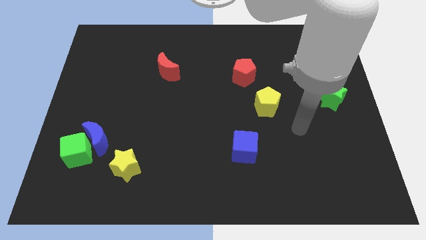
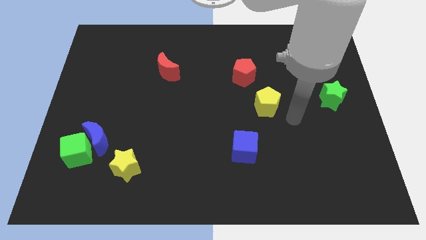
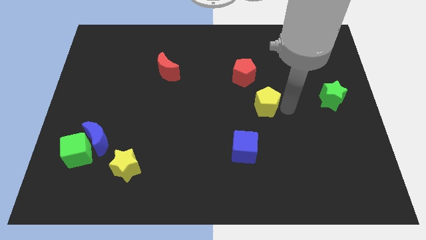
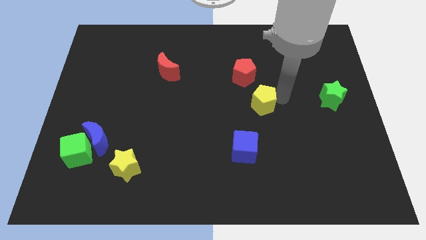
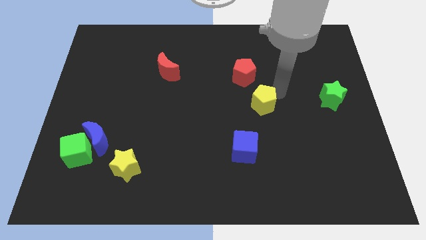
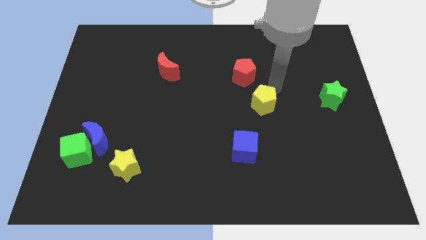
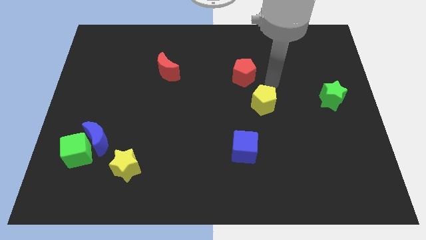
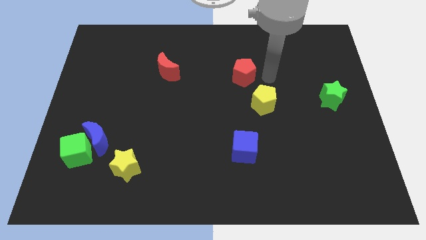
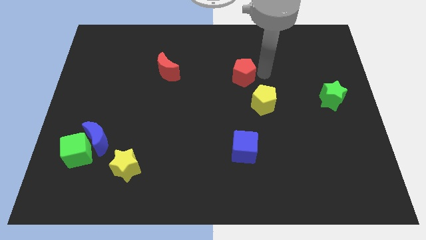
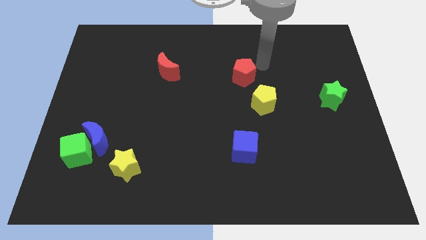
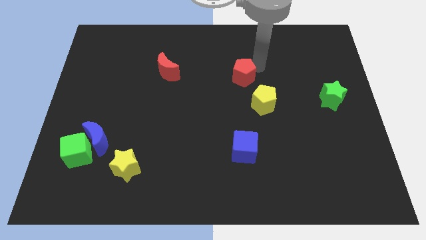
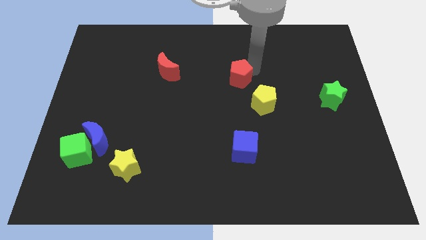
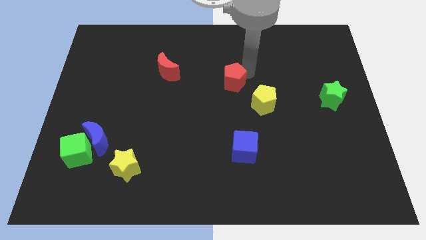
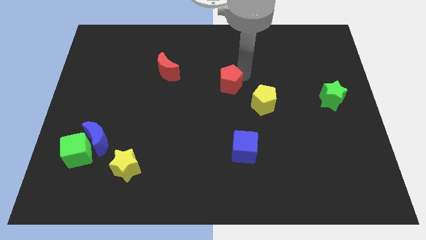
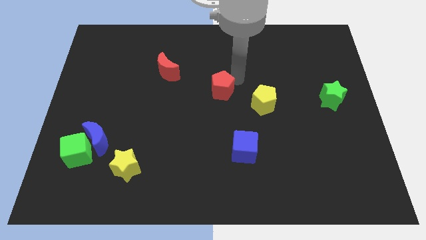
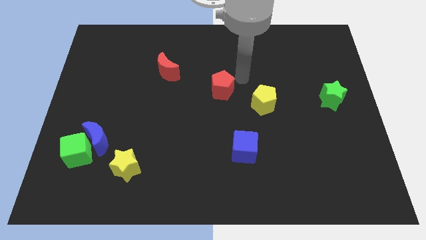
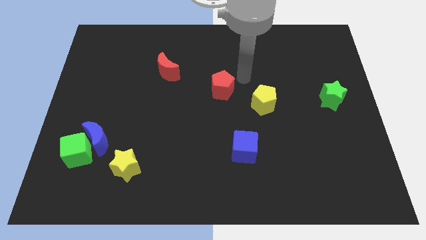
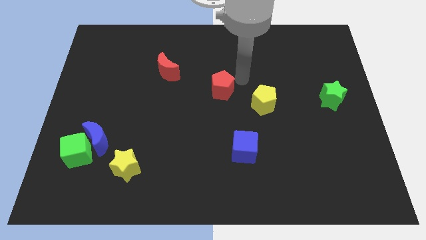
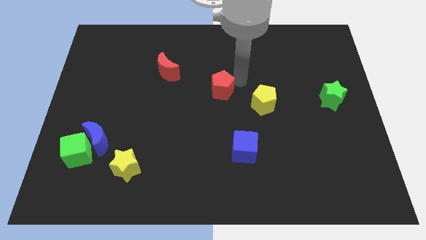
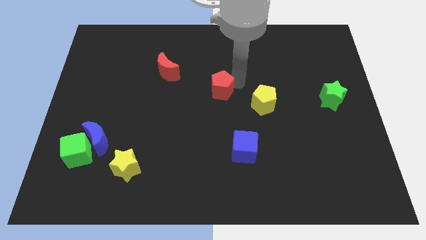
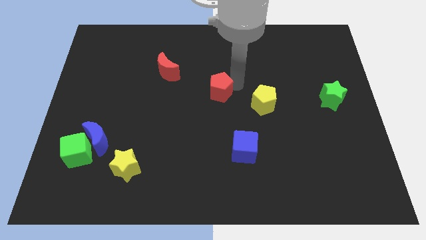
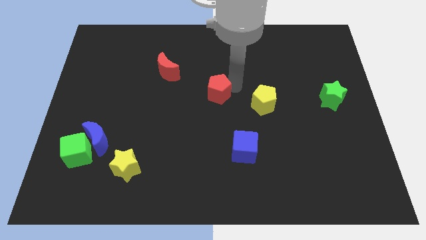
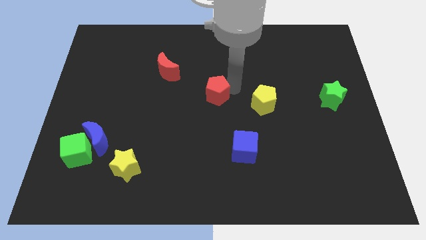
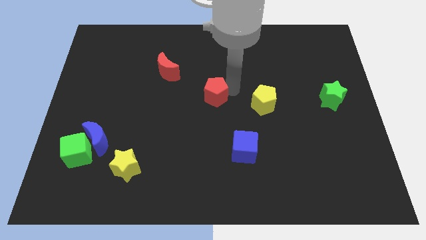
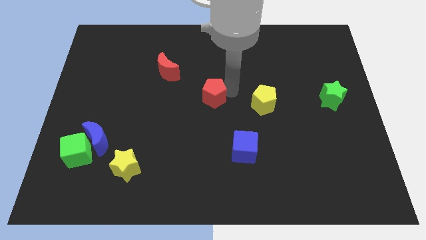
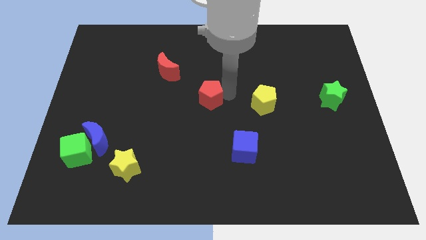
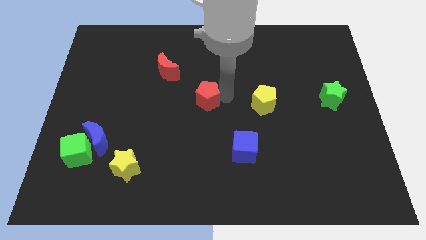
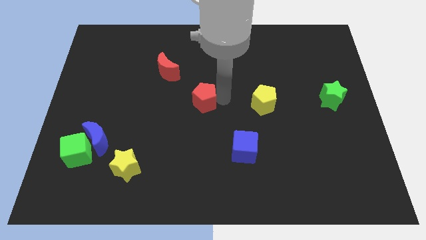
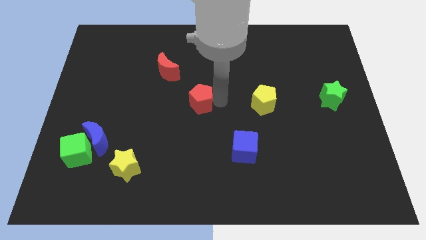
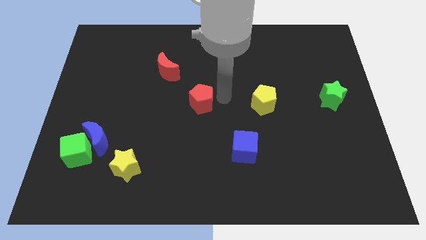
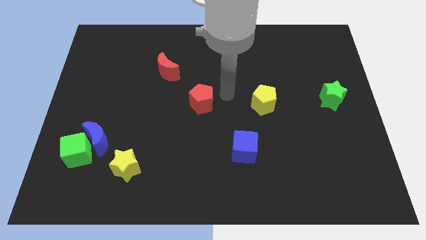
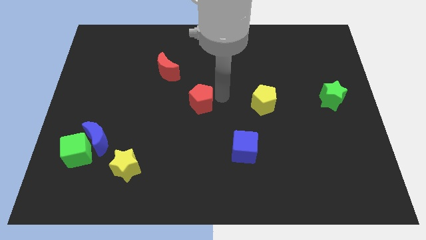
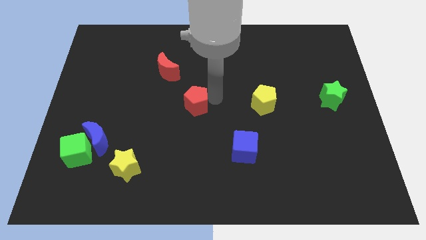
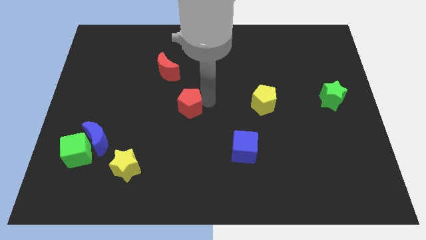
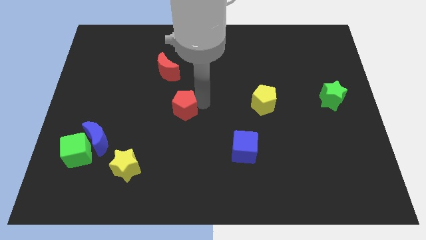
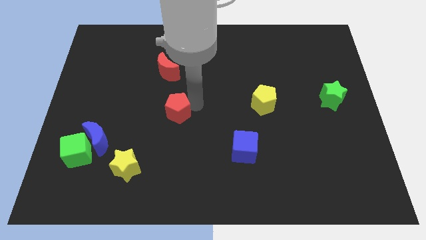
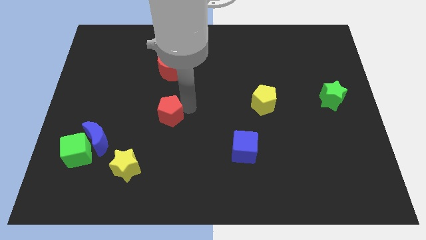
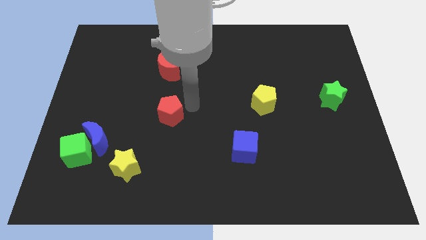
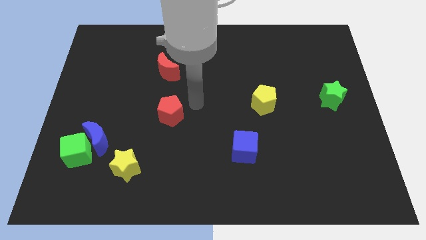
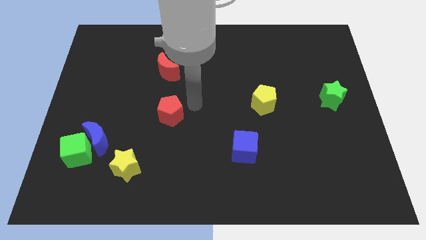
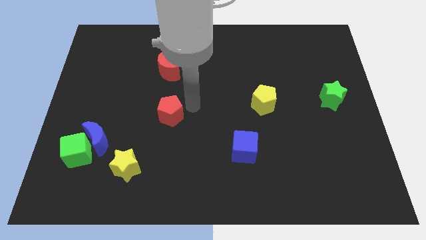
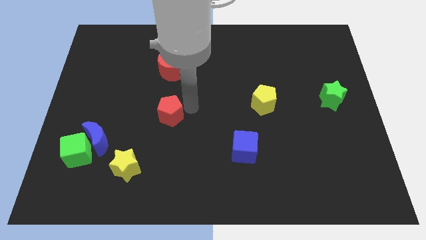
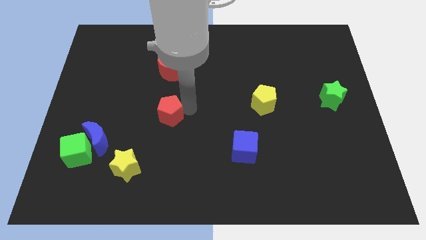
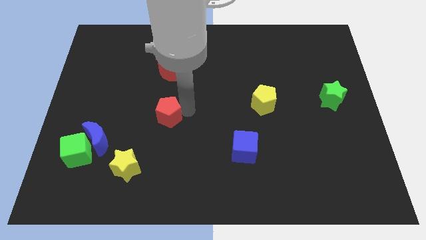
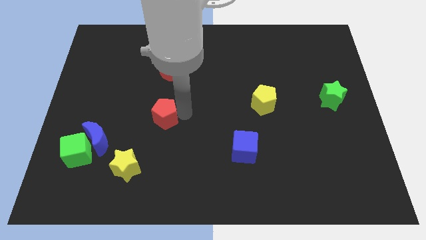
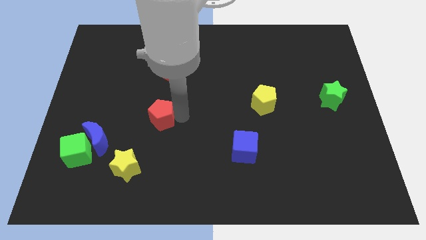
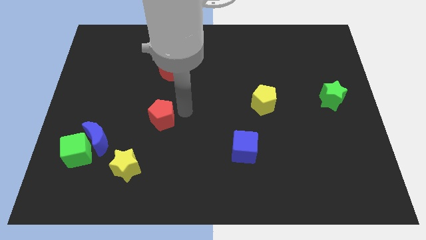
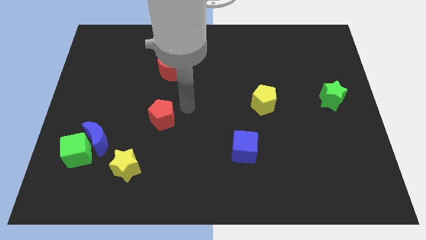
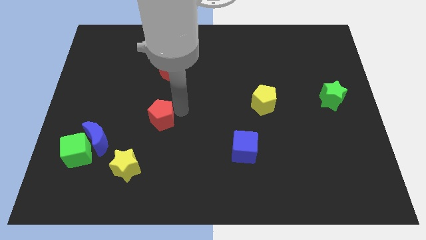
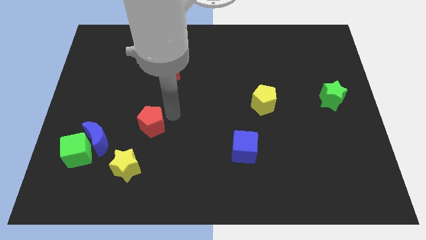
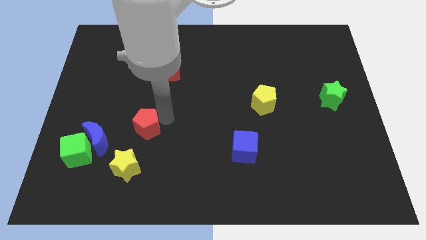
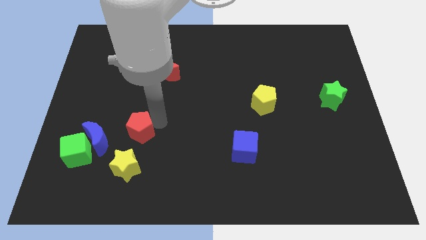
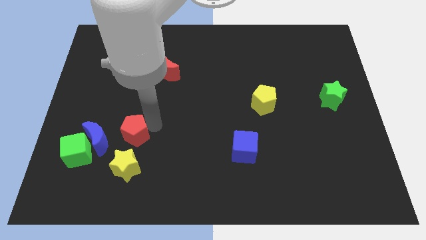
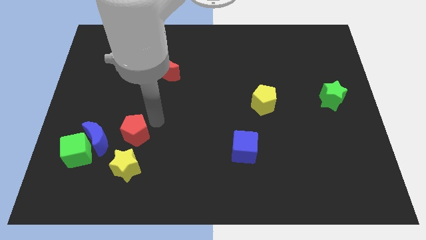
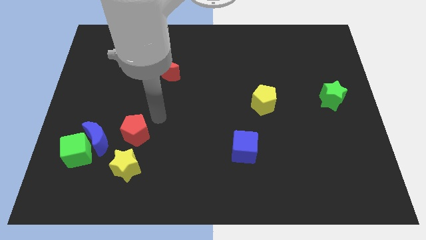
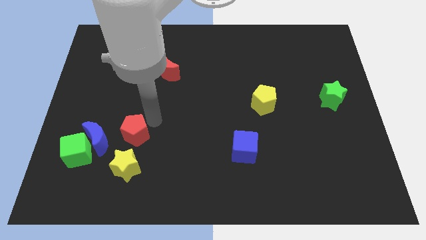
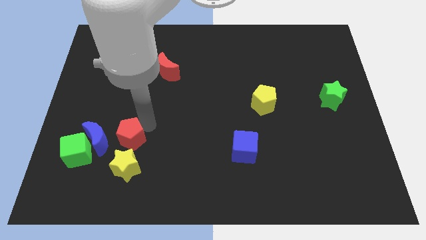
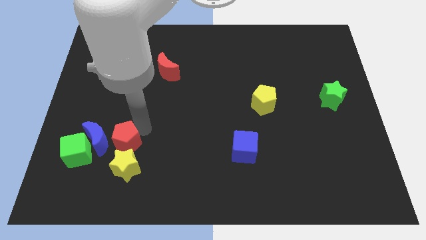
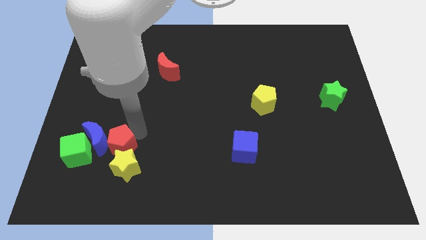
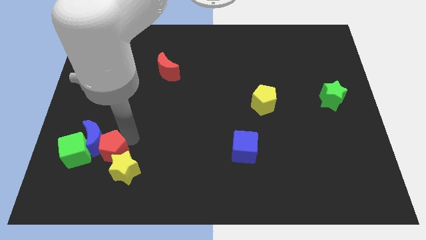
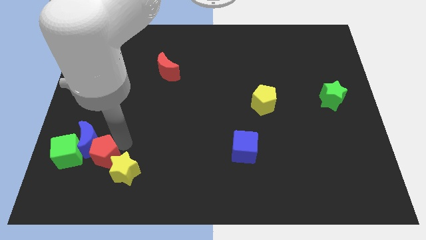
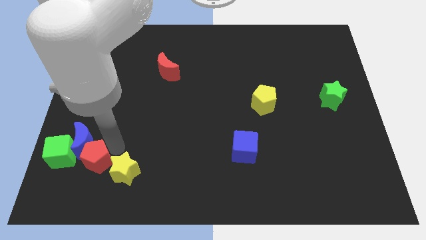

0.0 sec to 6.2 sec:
move the red pentagon to the bottom right side of the green cube
